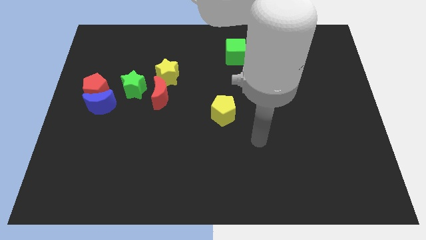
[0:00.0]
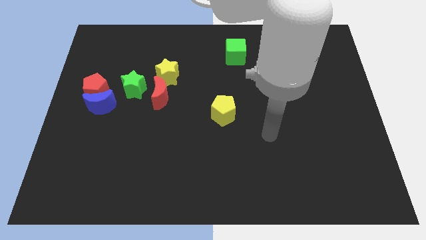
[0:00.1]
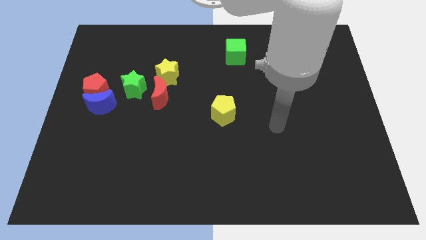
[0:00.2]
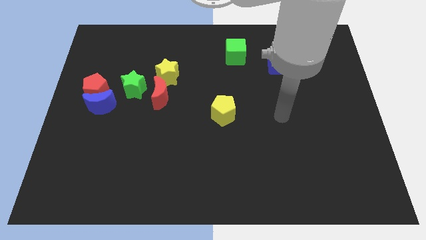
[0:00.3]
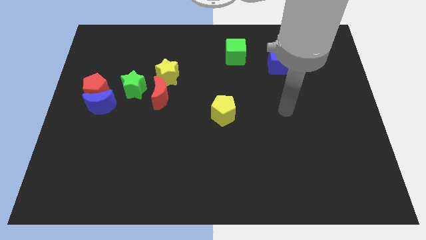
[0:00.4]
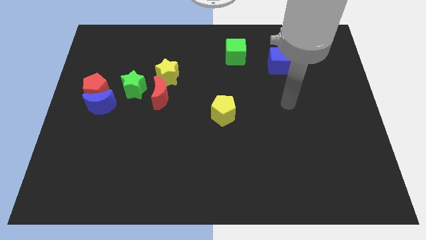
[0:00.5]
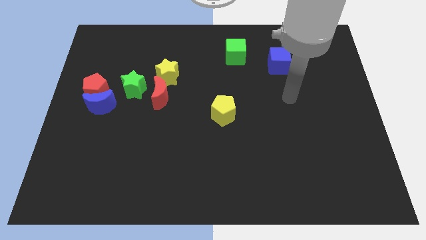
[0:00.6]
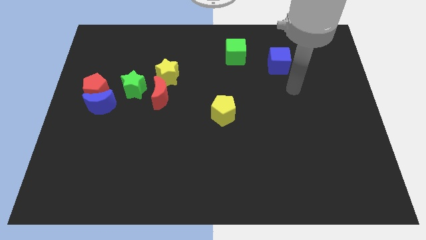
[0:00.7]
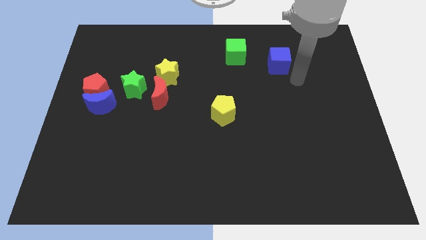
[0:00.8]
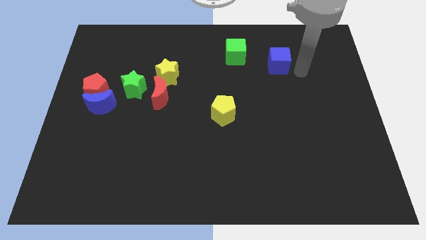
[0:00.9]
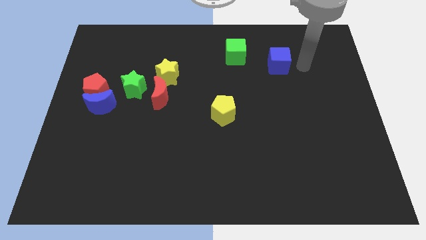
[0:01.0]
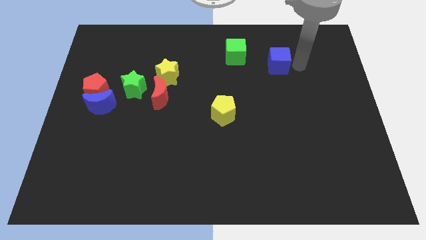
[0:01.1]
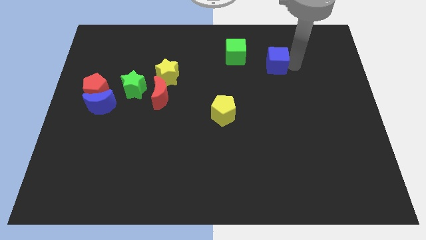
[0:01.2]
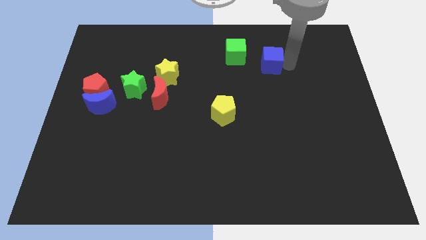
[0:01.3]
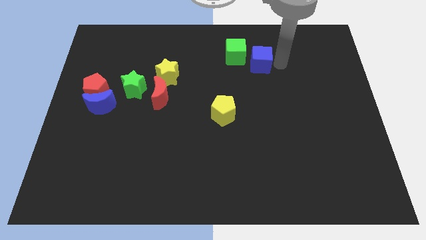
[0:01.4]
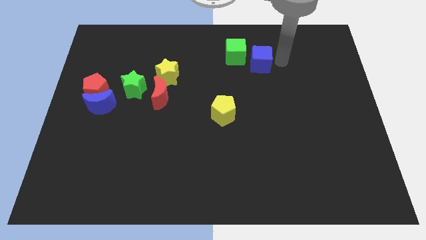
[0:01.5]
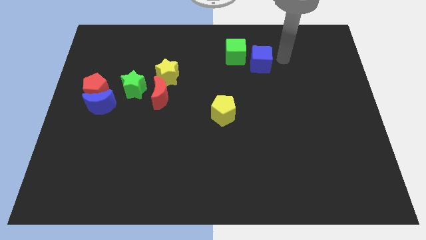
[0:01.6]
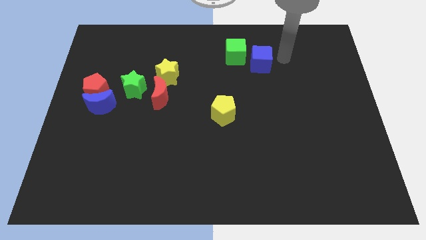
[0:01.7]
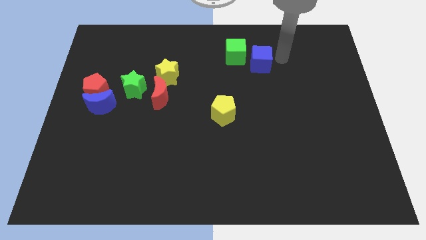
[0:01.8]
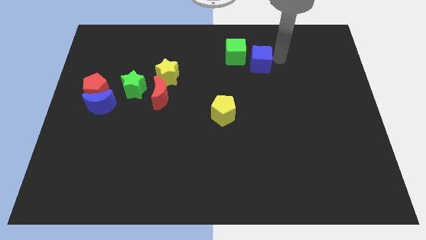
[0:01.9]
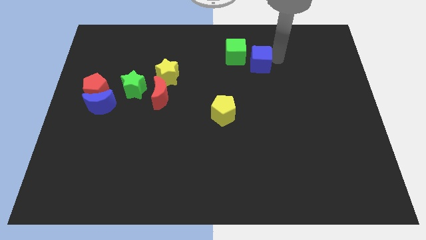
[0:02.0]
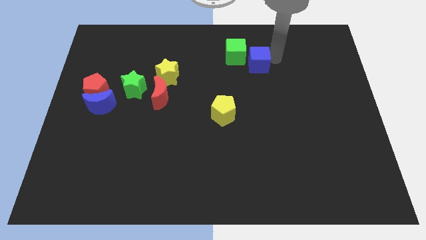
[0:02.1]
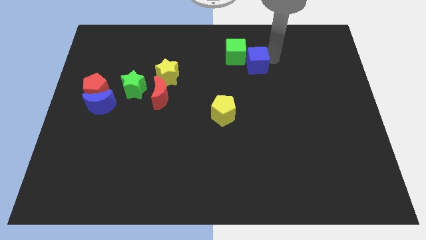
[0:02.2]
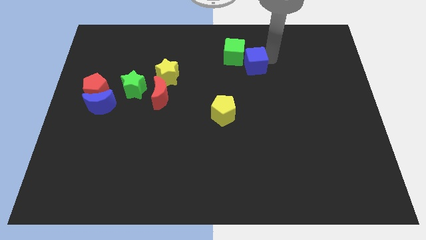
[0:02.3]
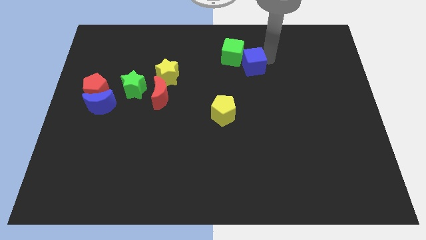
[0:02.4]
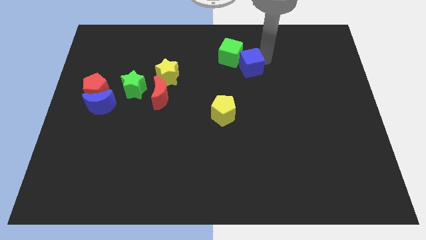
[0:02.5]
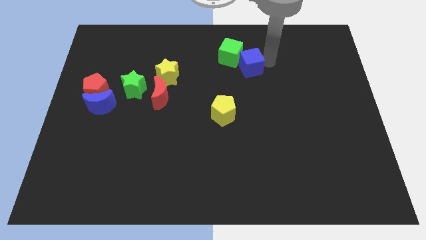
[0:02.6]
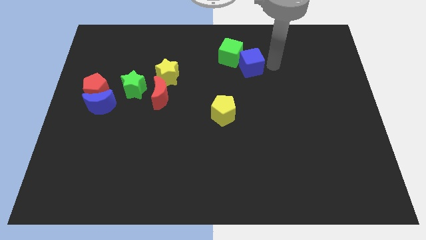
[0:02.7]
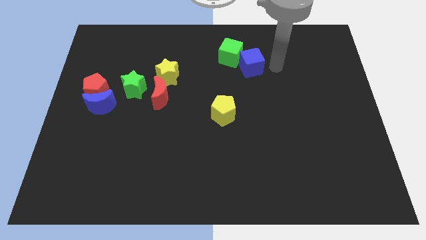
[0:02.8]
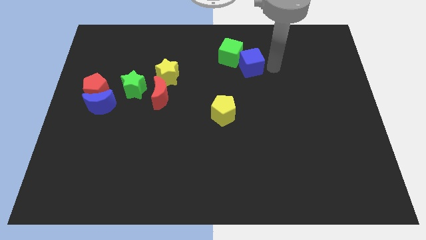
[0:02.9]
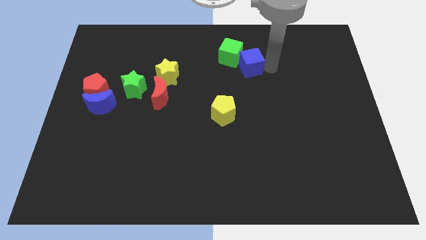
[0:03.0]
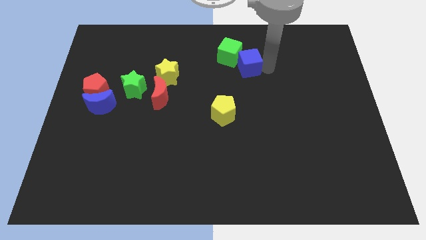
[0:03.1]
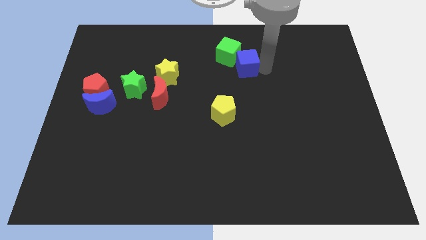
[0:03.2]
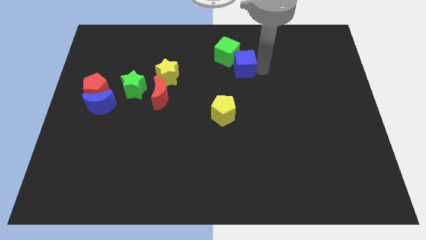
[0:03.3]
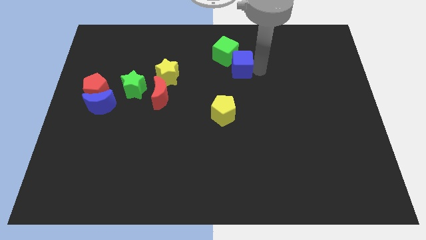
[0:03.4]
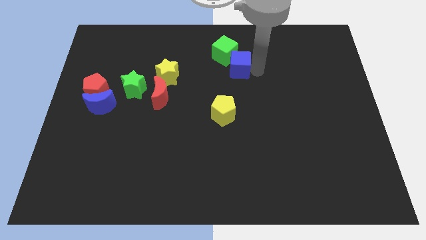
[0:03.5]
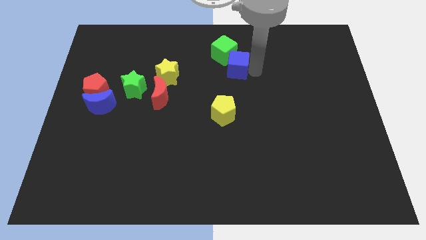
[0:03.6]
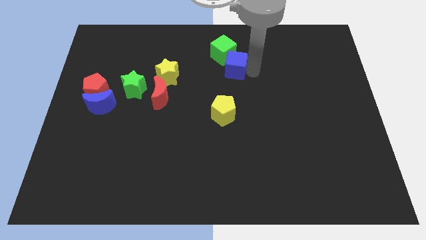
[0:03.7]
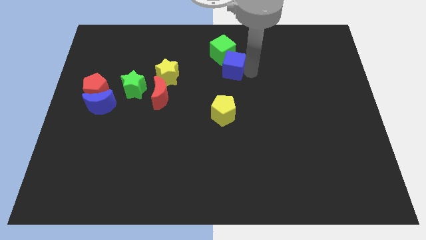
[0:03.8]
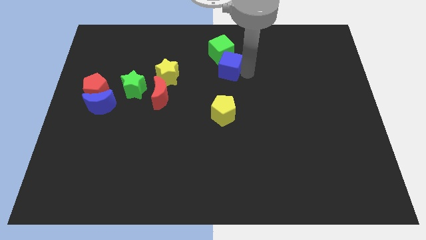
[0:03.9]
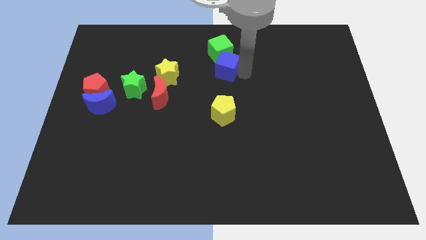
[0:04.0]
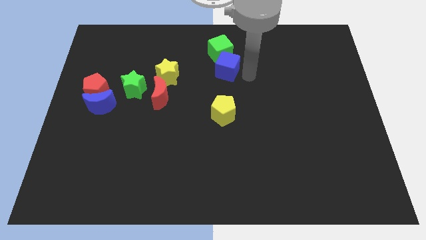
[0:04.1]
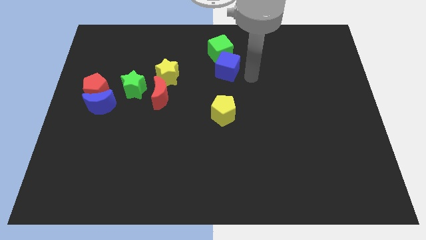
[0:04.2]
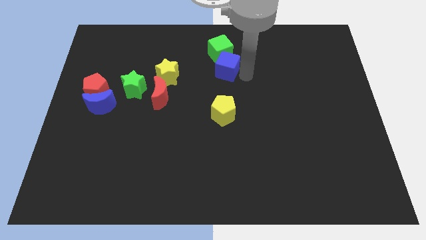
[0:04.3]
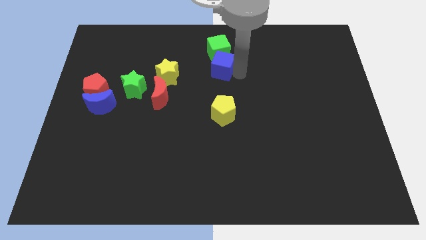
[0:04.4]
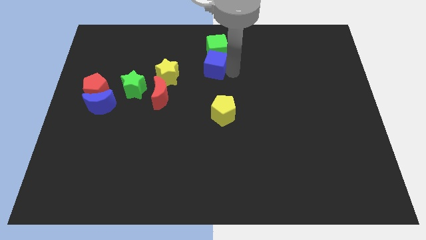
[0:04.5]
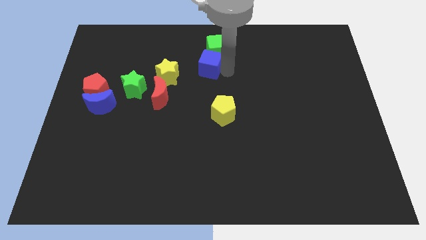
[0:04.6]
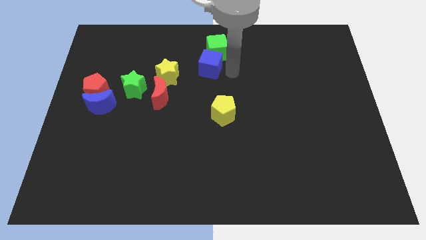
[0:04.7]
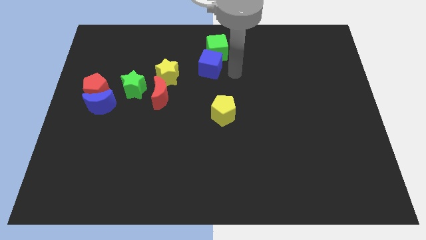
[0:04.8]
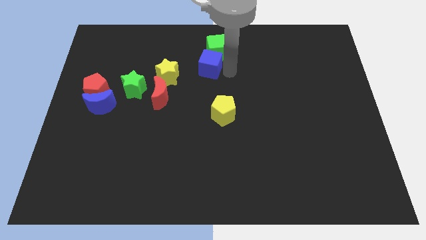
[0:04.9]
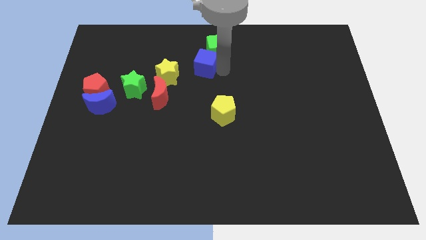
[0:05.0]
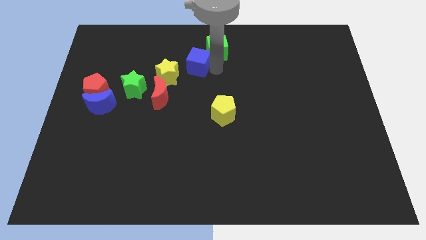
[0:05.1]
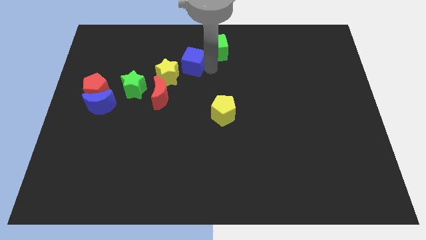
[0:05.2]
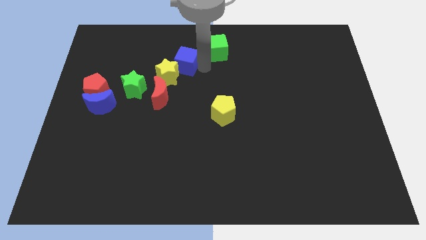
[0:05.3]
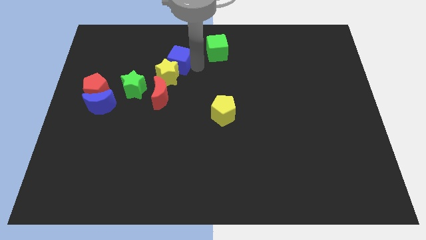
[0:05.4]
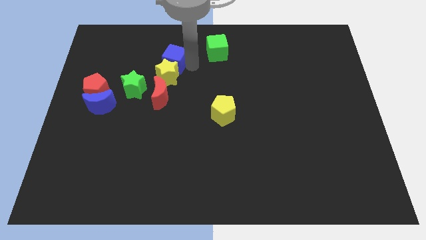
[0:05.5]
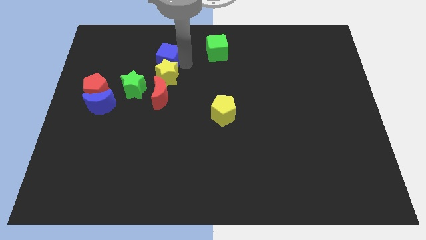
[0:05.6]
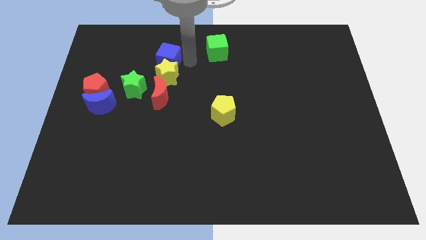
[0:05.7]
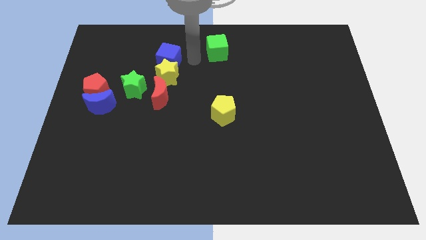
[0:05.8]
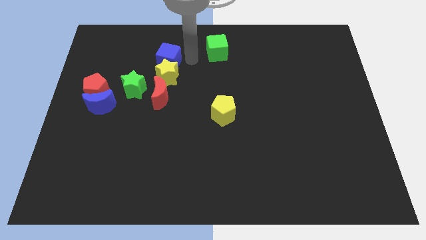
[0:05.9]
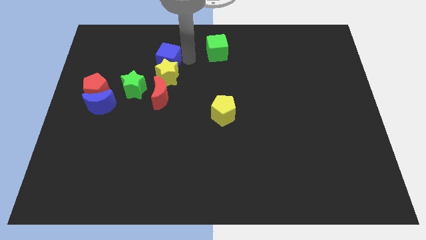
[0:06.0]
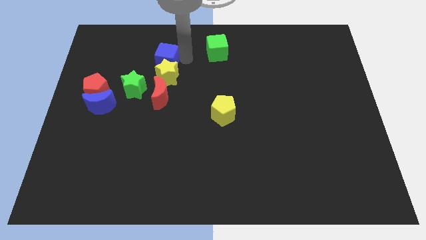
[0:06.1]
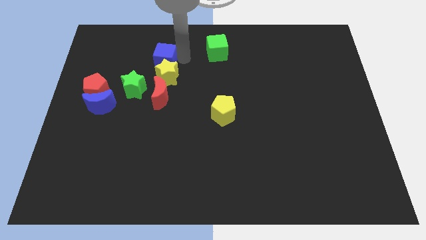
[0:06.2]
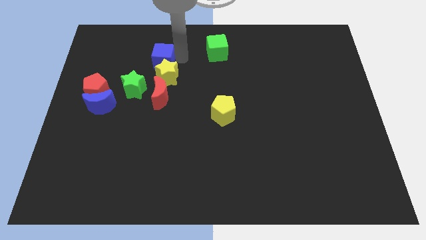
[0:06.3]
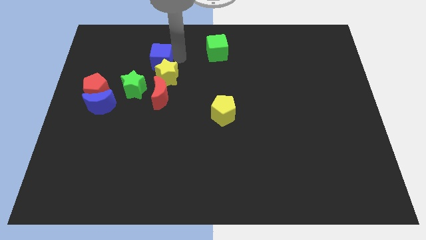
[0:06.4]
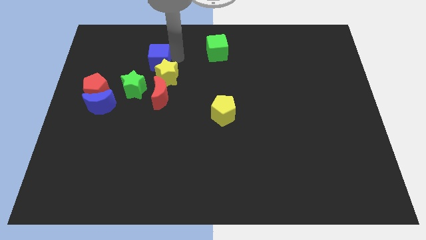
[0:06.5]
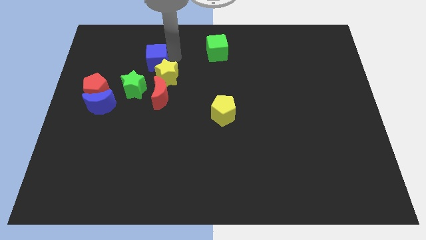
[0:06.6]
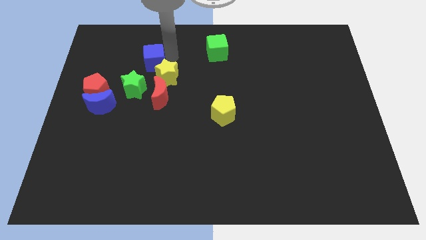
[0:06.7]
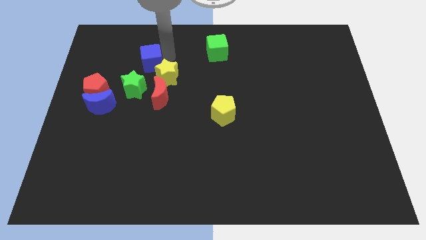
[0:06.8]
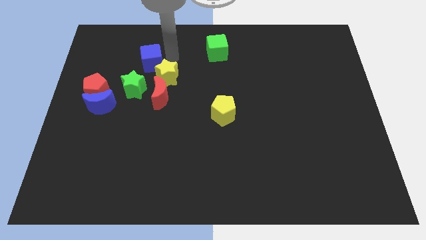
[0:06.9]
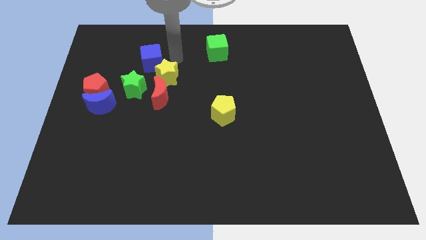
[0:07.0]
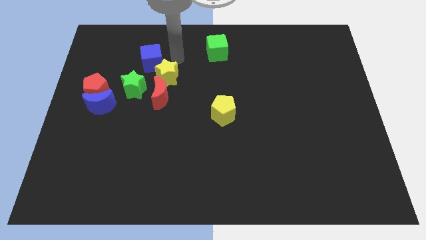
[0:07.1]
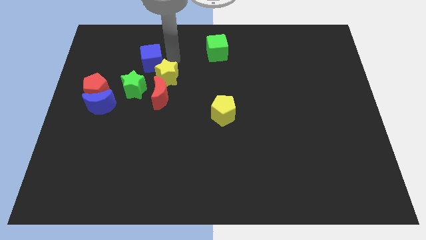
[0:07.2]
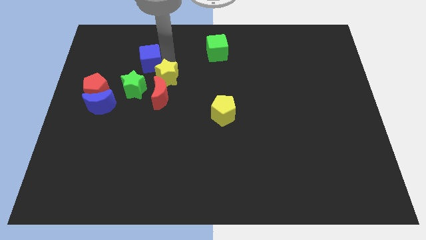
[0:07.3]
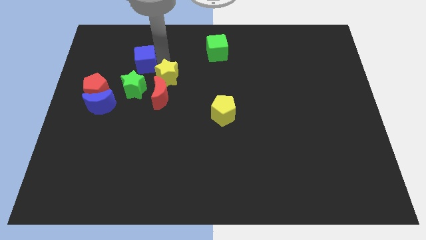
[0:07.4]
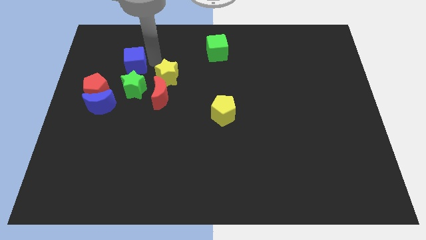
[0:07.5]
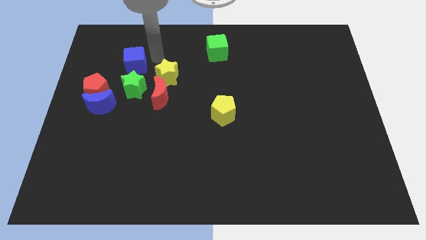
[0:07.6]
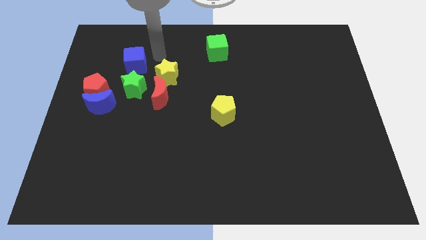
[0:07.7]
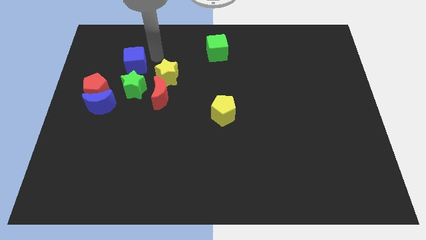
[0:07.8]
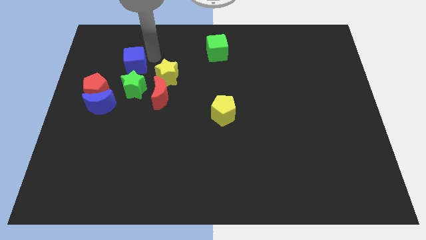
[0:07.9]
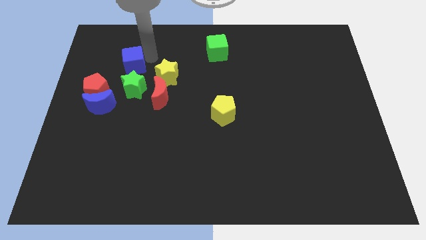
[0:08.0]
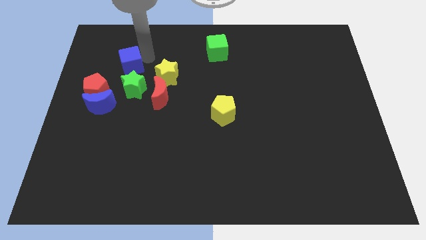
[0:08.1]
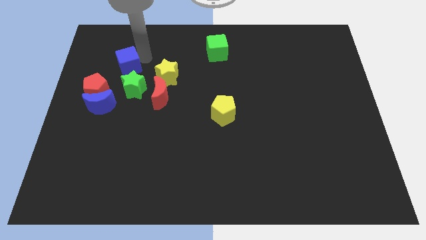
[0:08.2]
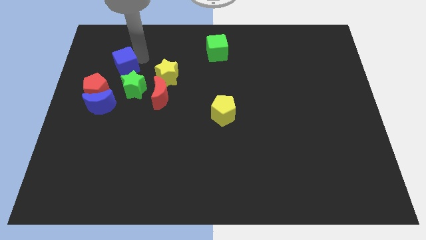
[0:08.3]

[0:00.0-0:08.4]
slide the blue cube to the top side of the blue moon
